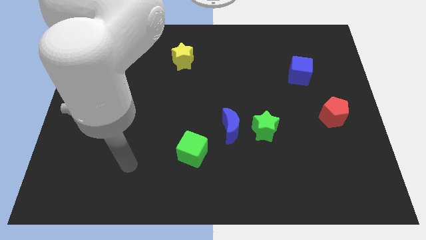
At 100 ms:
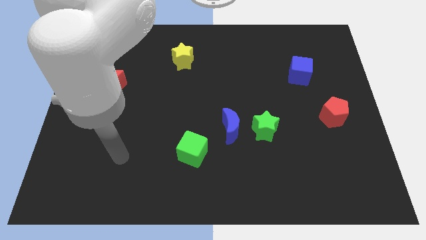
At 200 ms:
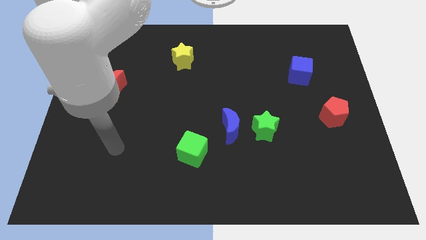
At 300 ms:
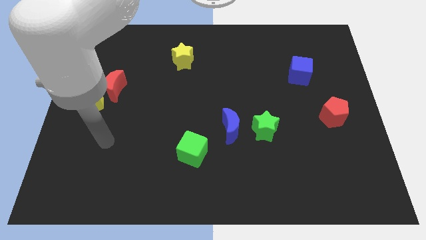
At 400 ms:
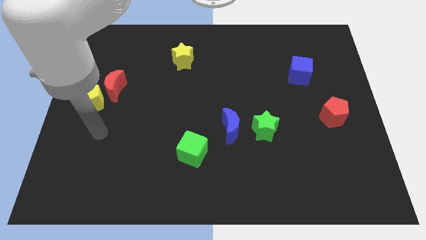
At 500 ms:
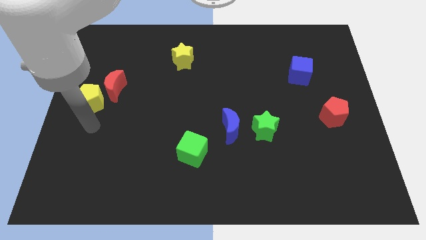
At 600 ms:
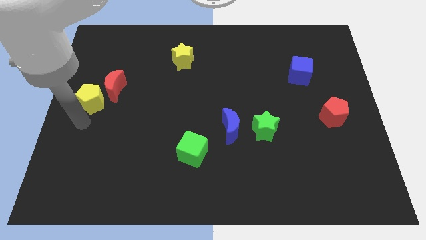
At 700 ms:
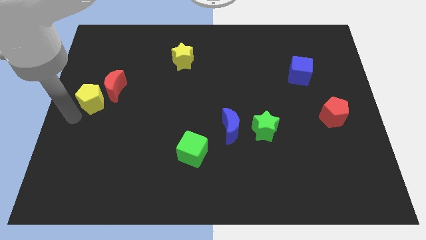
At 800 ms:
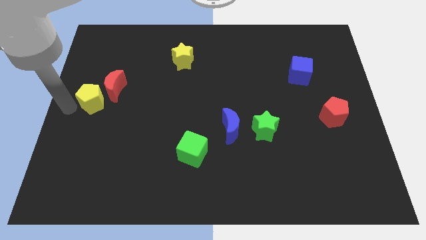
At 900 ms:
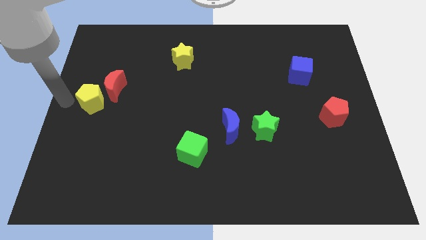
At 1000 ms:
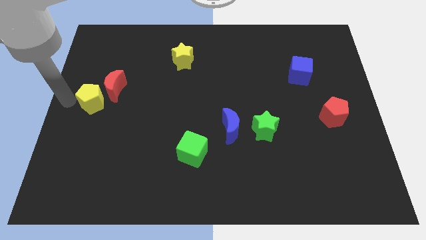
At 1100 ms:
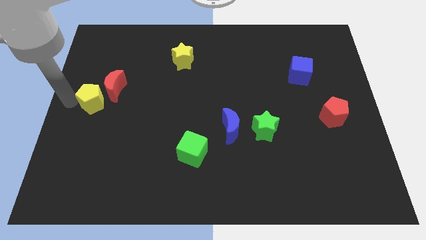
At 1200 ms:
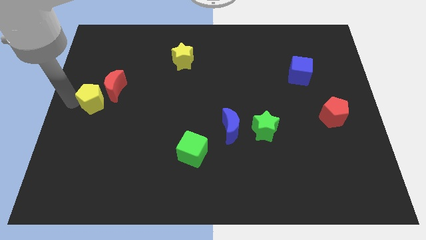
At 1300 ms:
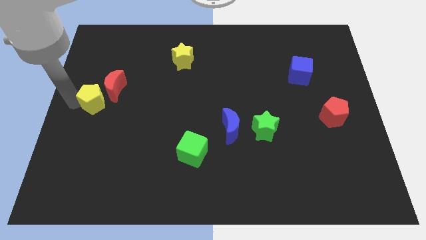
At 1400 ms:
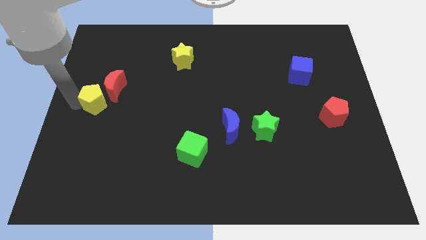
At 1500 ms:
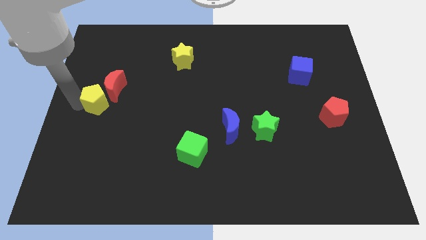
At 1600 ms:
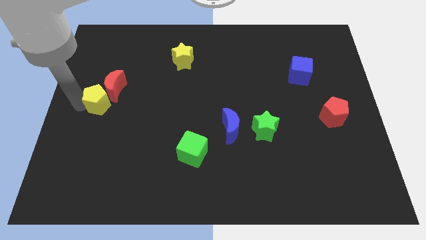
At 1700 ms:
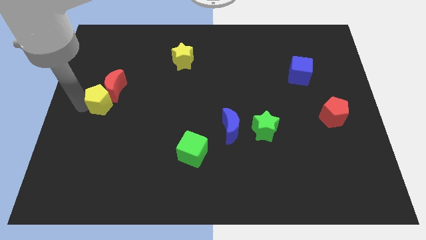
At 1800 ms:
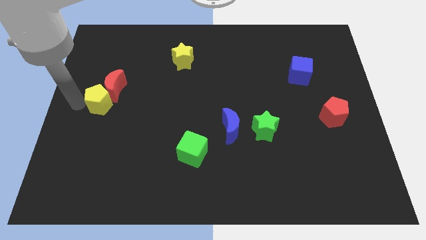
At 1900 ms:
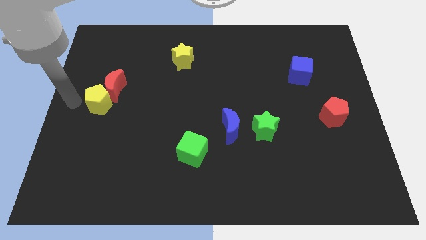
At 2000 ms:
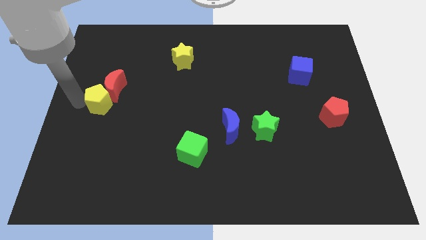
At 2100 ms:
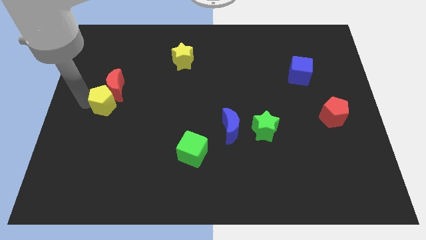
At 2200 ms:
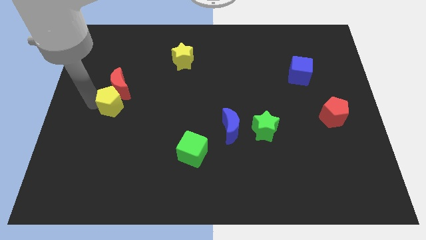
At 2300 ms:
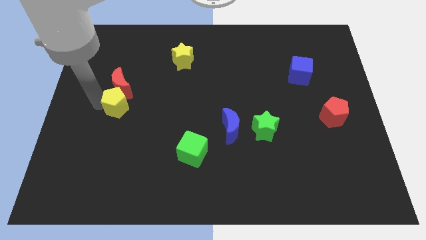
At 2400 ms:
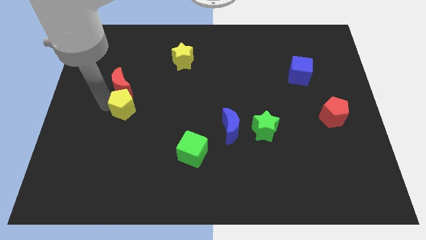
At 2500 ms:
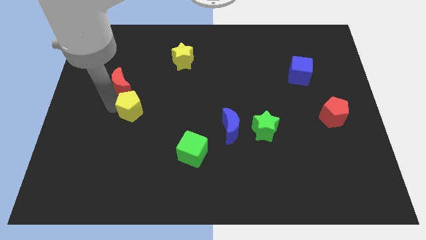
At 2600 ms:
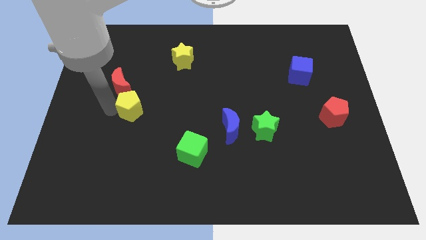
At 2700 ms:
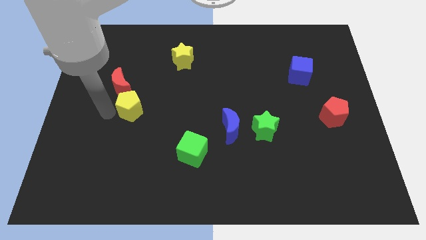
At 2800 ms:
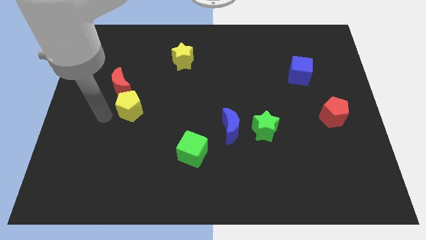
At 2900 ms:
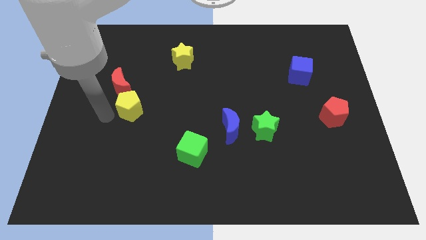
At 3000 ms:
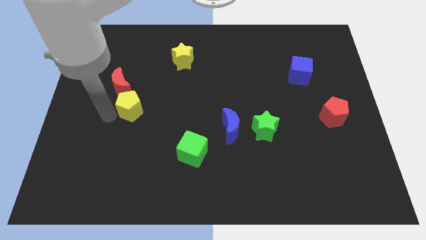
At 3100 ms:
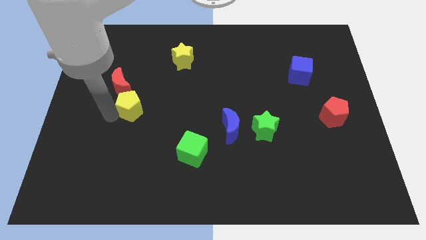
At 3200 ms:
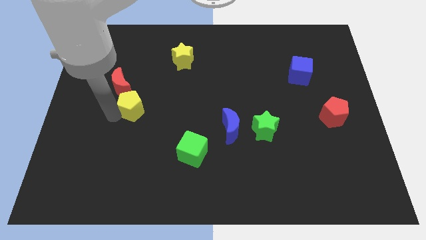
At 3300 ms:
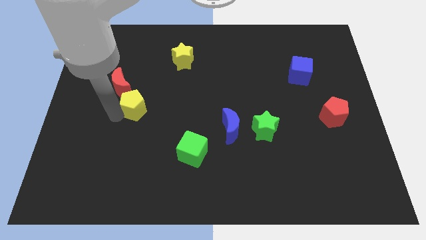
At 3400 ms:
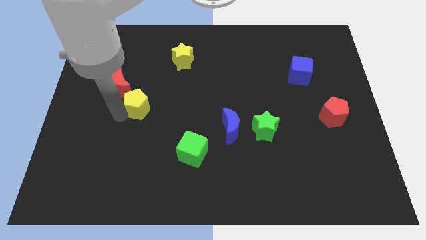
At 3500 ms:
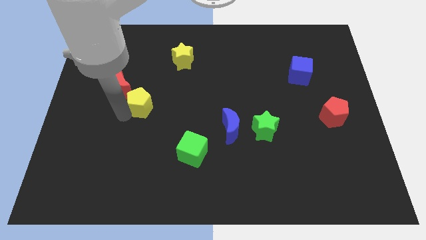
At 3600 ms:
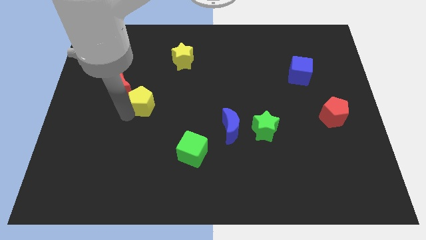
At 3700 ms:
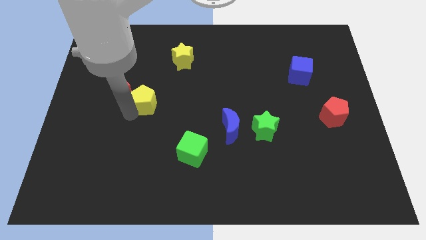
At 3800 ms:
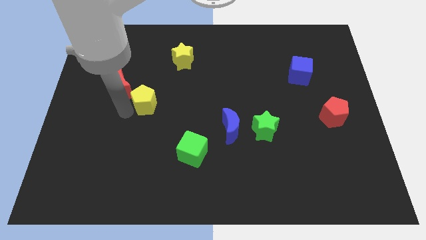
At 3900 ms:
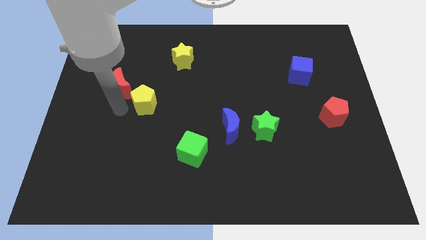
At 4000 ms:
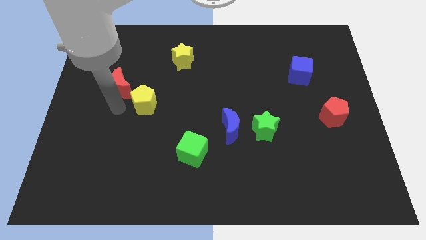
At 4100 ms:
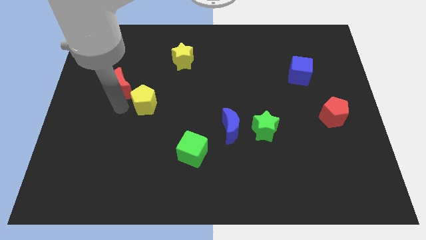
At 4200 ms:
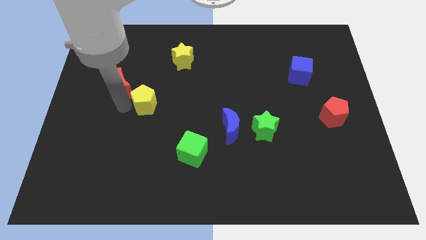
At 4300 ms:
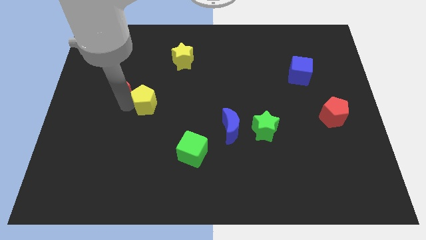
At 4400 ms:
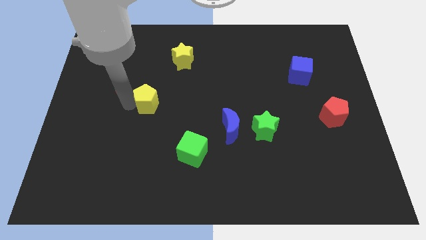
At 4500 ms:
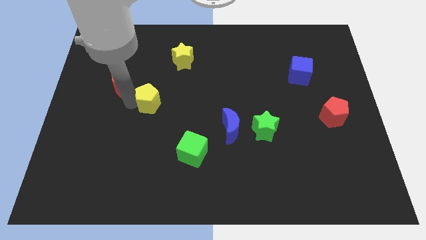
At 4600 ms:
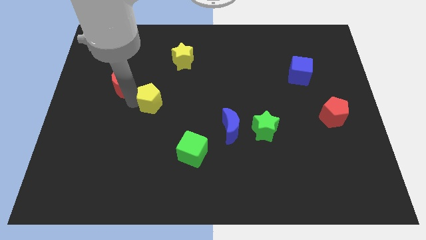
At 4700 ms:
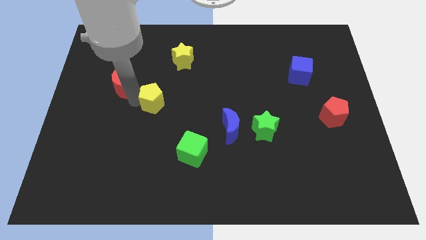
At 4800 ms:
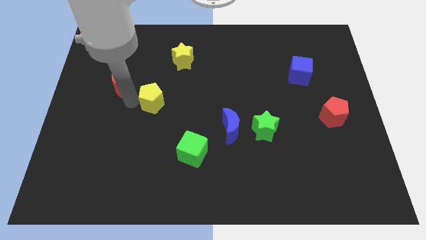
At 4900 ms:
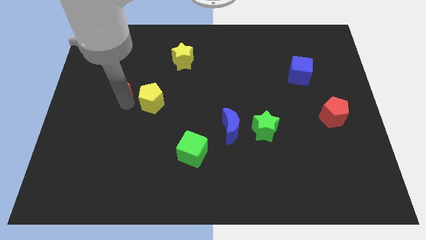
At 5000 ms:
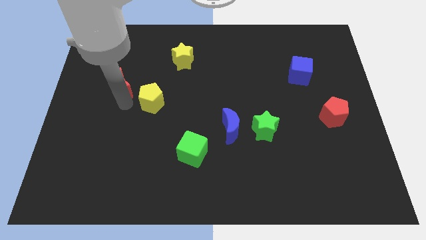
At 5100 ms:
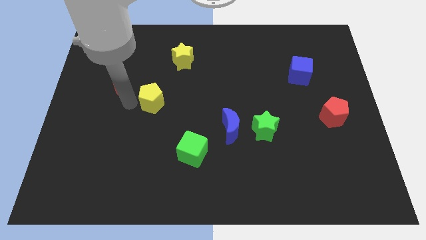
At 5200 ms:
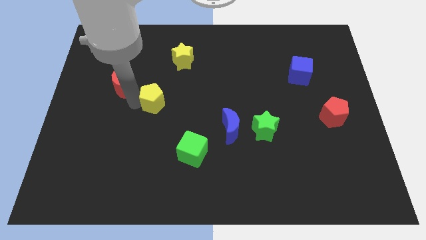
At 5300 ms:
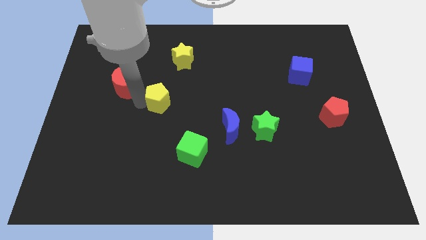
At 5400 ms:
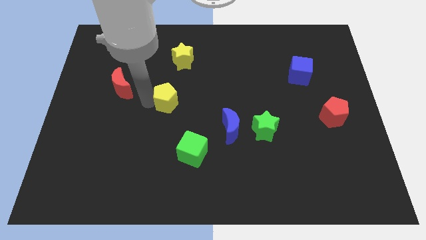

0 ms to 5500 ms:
push the yellow pentagon to the middle of the board

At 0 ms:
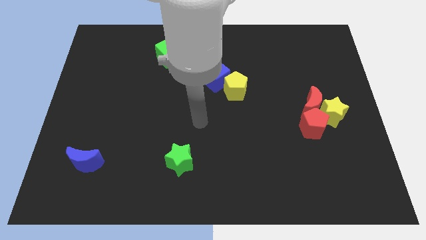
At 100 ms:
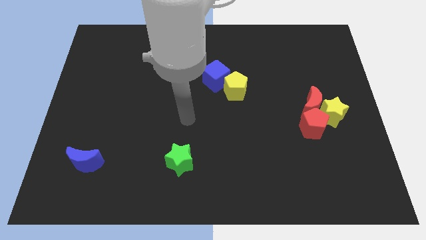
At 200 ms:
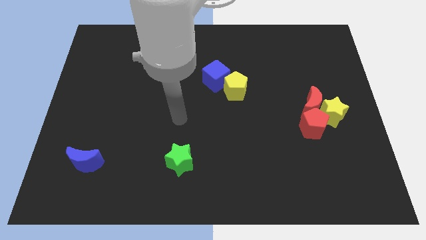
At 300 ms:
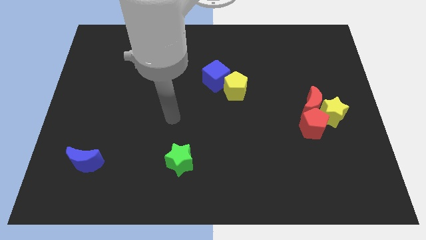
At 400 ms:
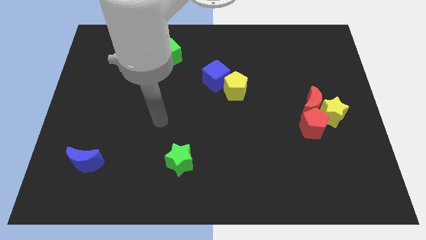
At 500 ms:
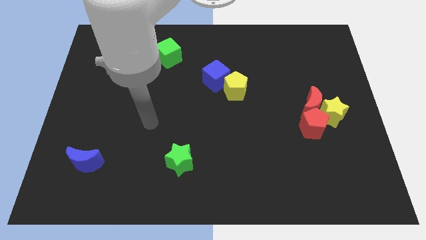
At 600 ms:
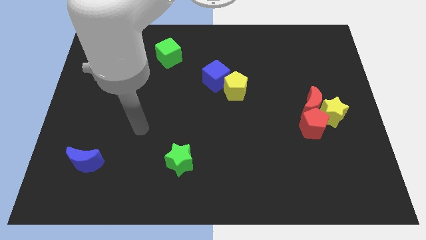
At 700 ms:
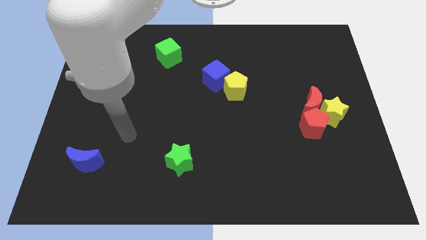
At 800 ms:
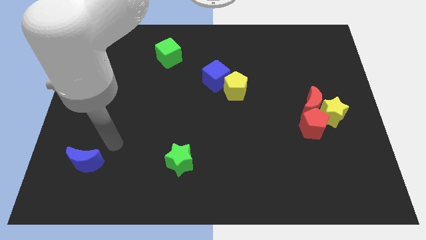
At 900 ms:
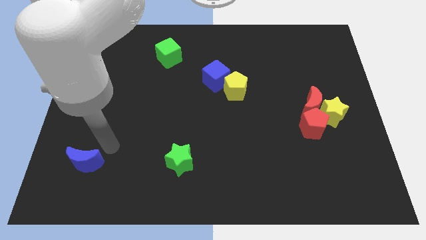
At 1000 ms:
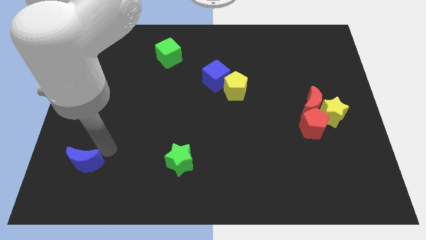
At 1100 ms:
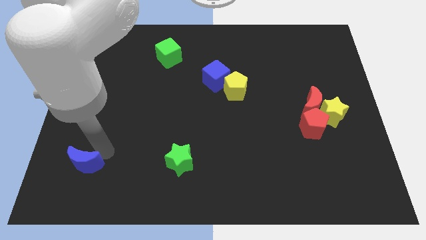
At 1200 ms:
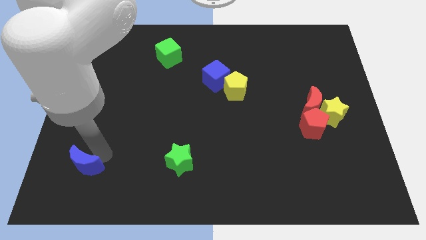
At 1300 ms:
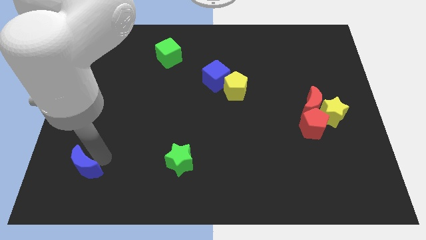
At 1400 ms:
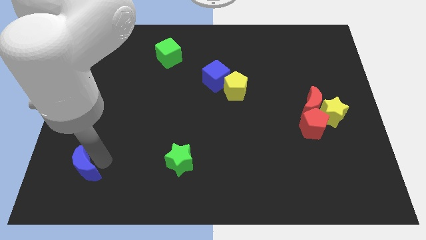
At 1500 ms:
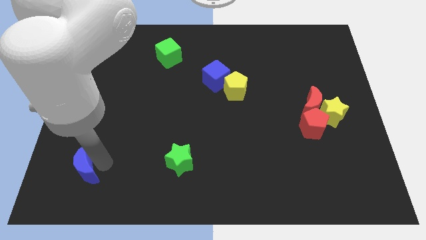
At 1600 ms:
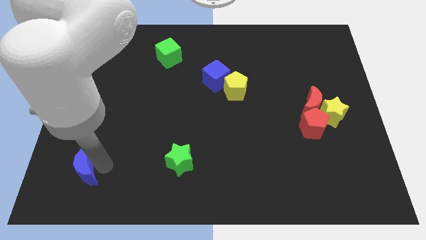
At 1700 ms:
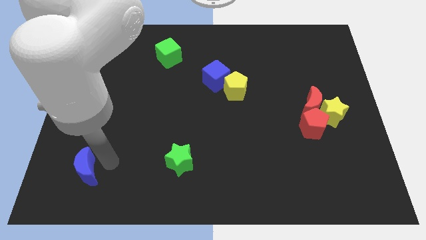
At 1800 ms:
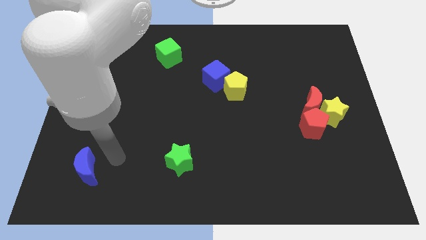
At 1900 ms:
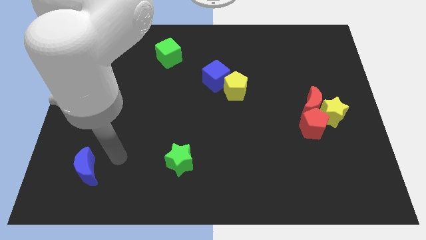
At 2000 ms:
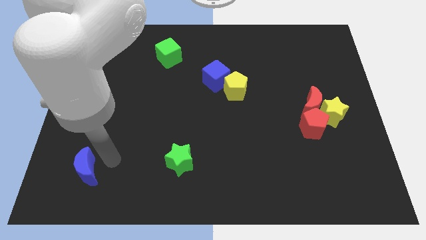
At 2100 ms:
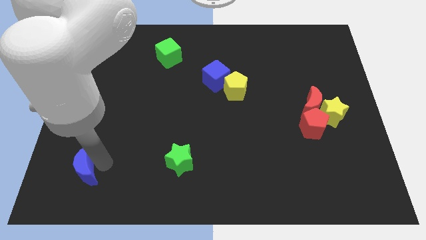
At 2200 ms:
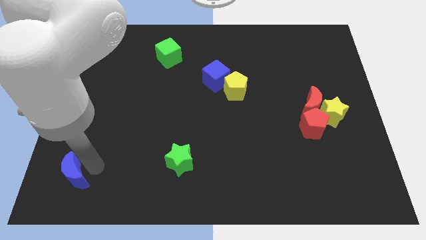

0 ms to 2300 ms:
move the blue moon to the bottom left of the board
